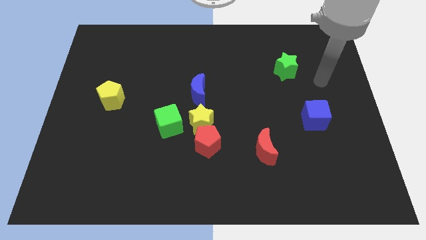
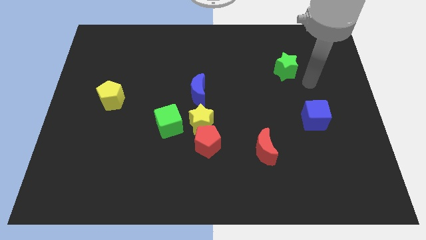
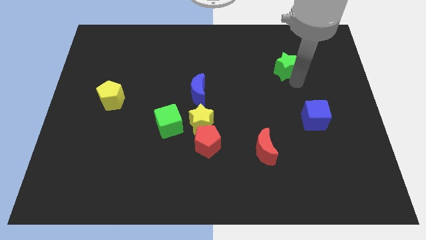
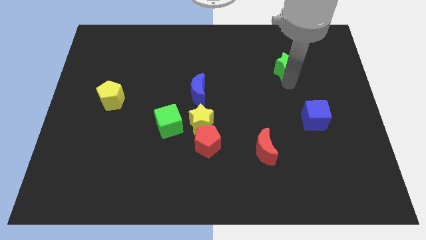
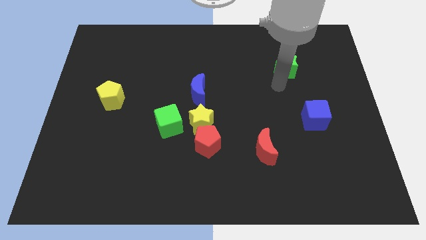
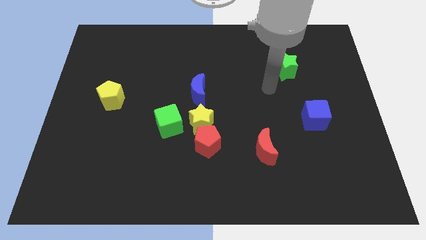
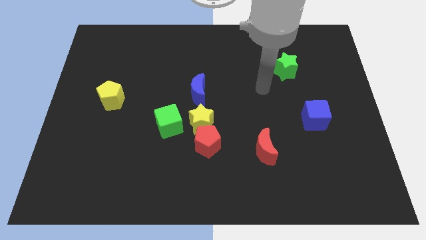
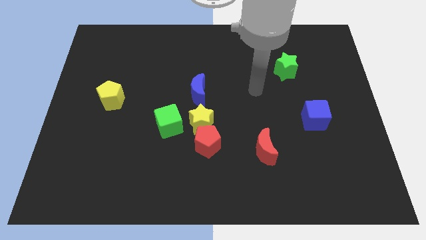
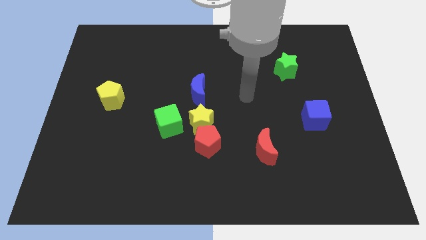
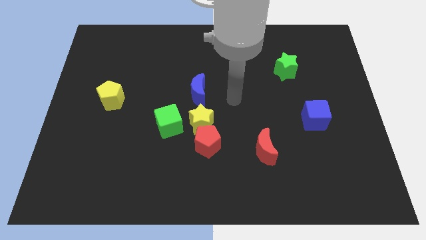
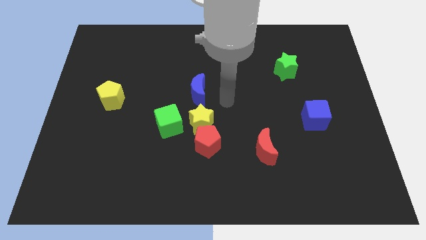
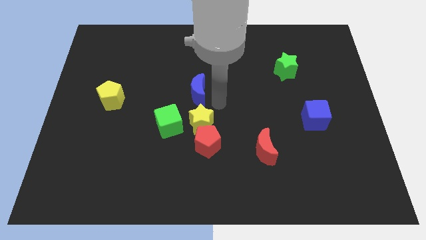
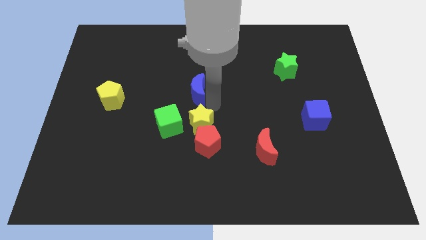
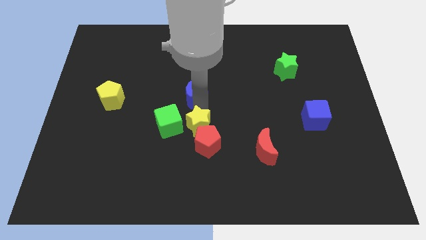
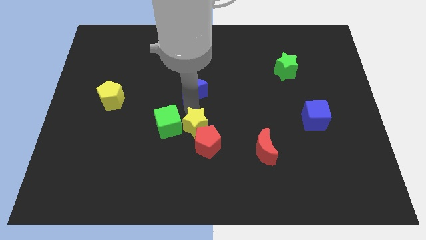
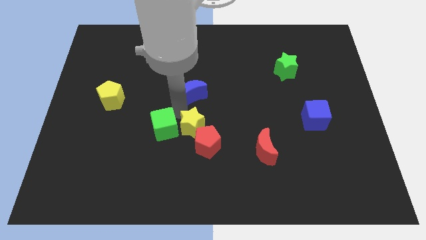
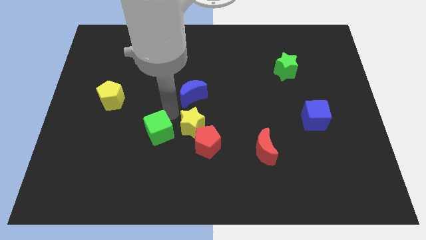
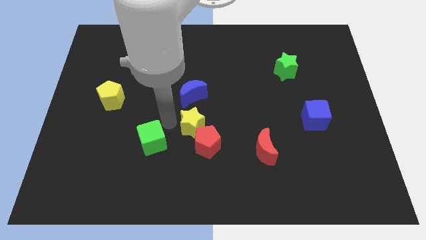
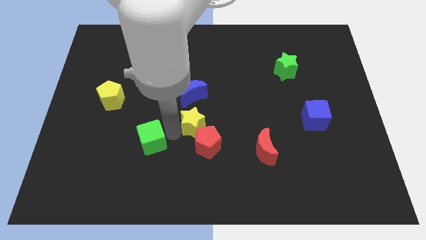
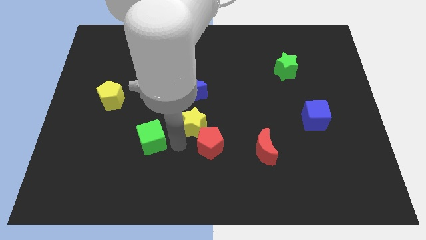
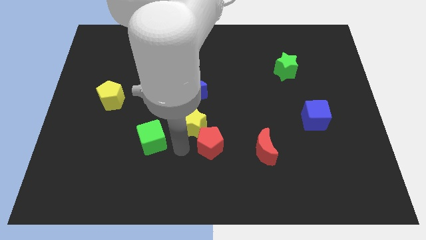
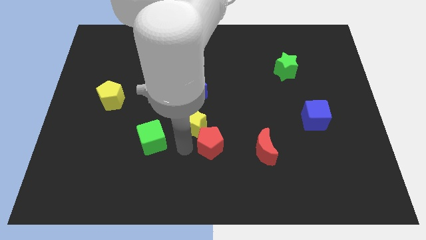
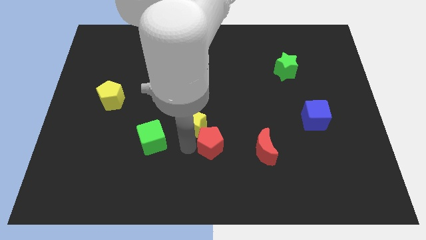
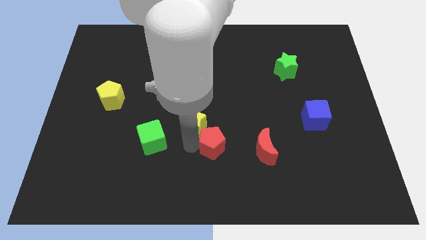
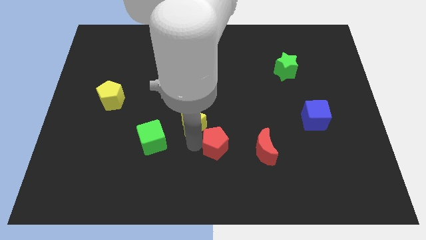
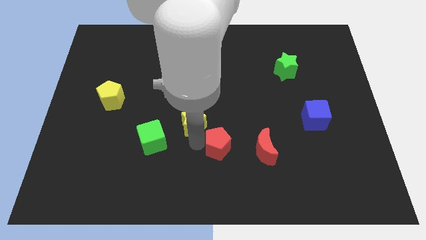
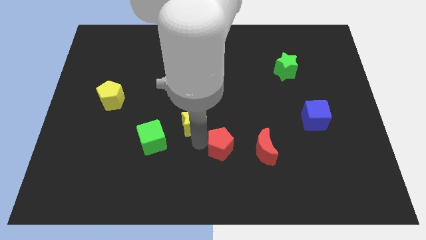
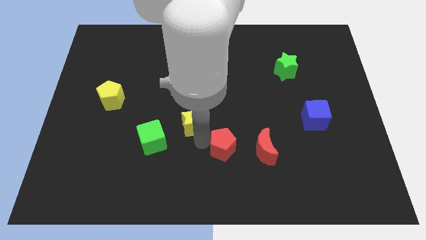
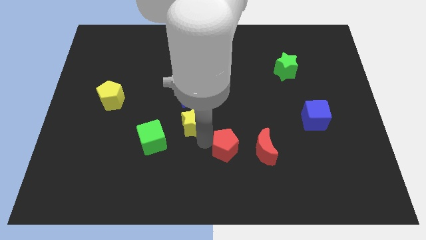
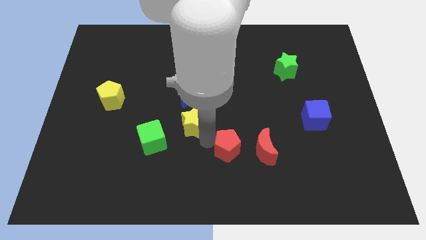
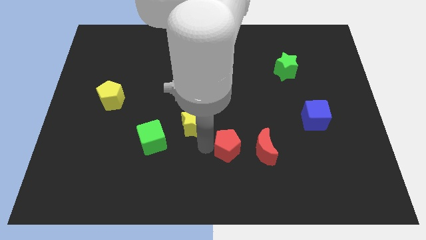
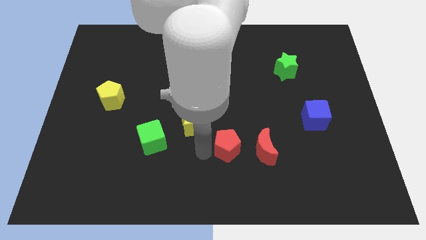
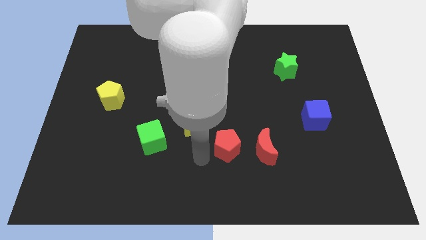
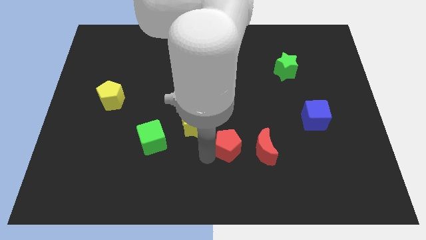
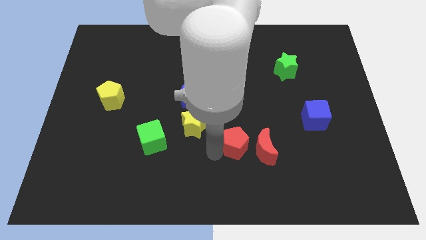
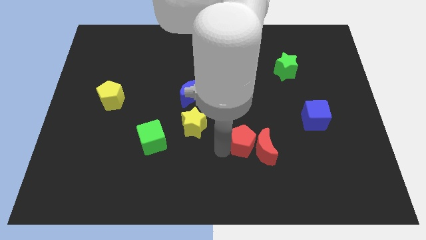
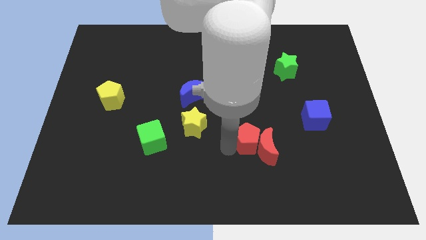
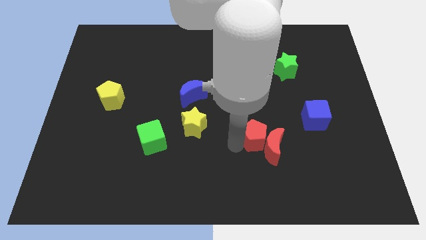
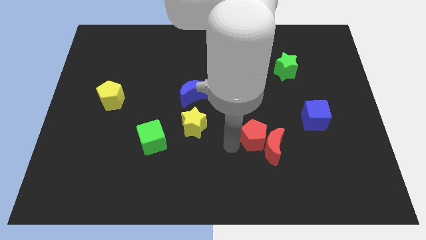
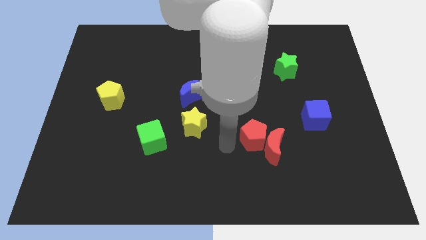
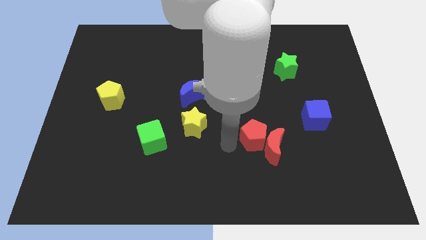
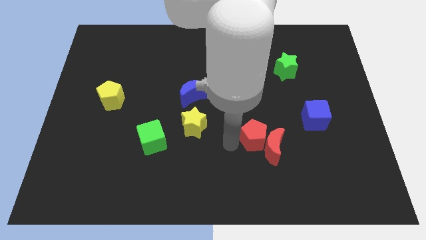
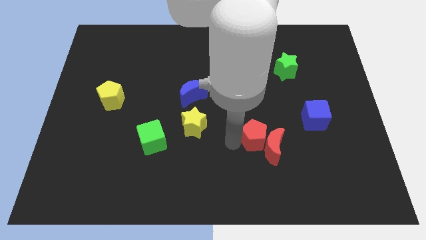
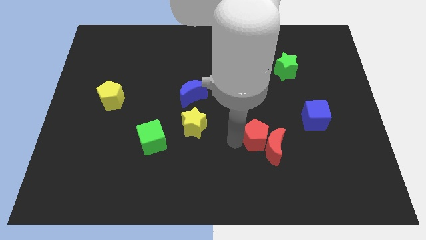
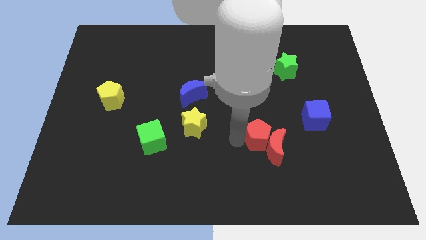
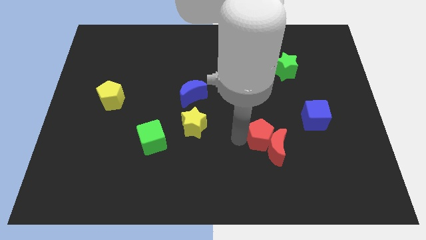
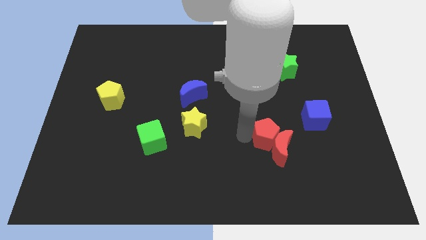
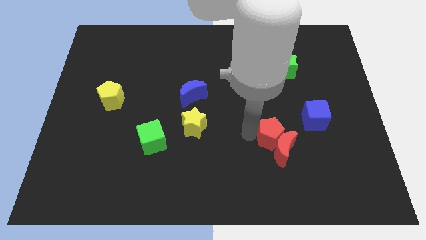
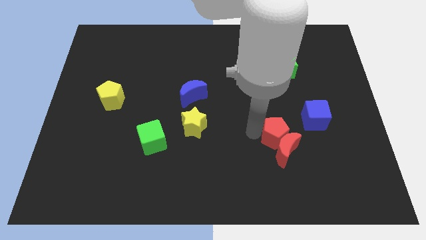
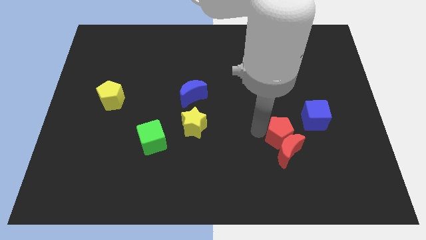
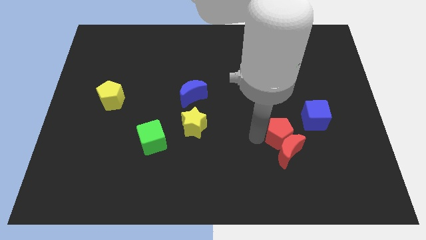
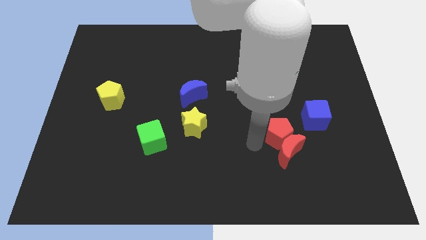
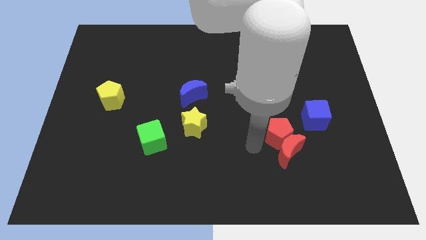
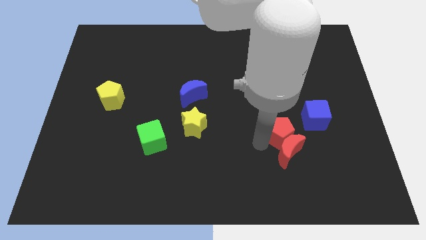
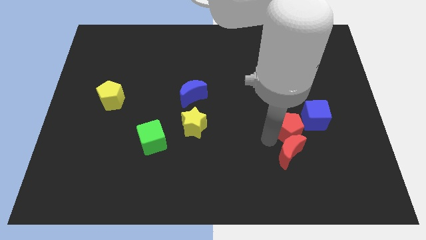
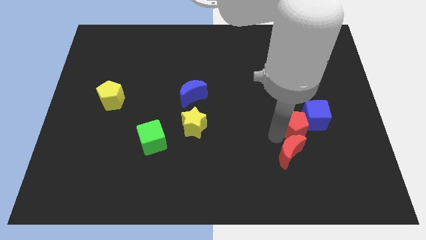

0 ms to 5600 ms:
slide the red pentagon towards the blue cube

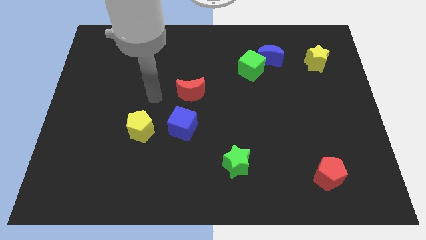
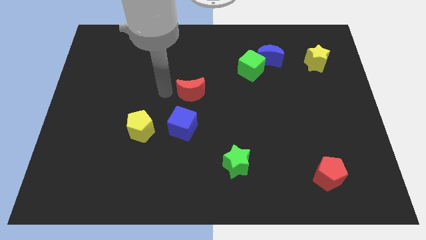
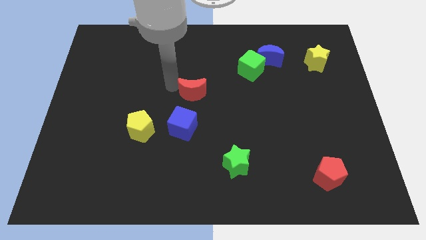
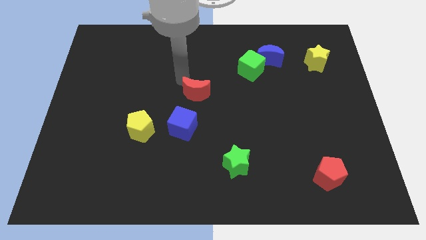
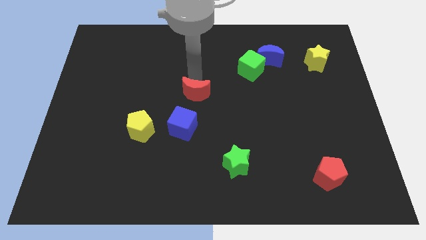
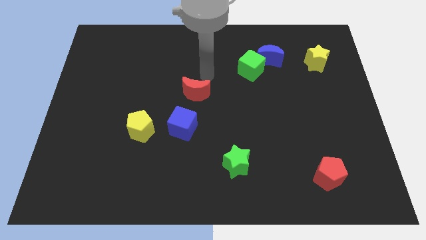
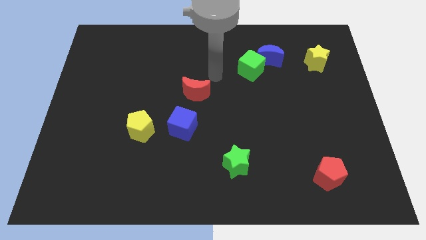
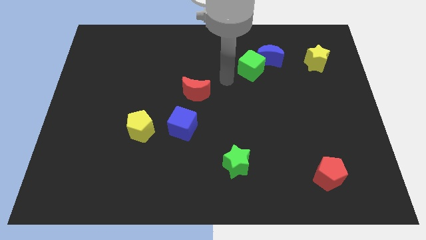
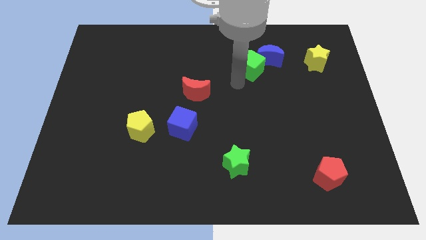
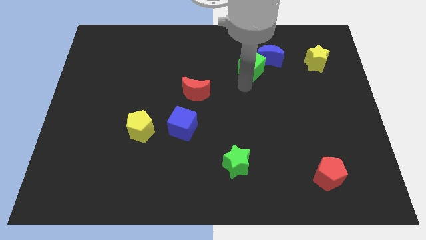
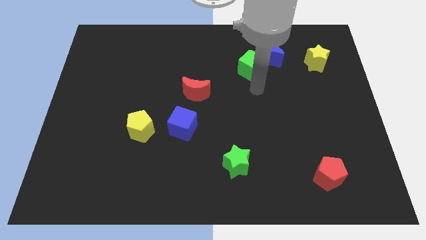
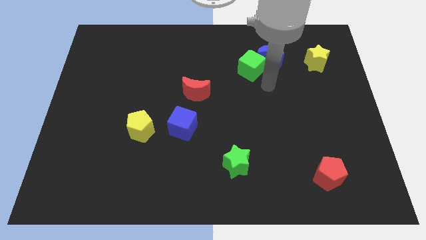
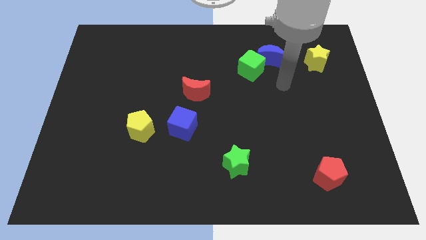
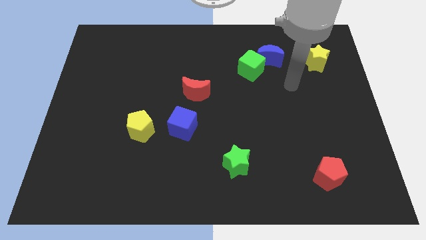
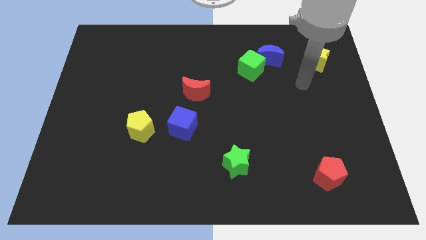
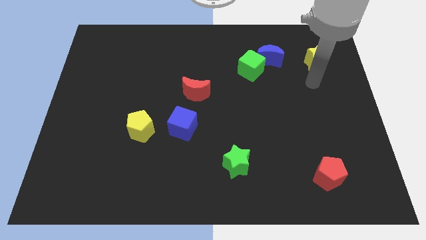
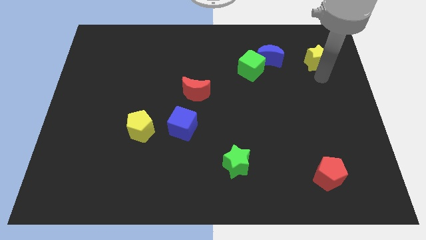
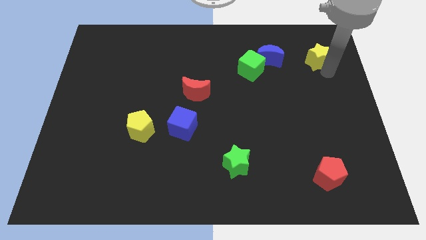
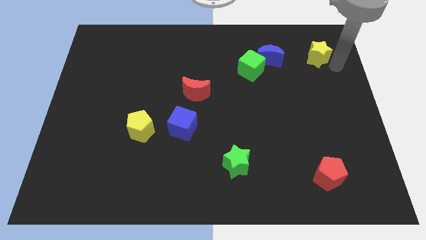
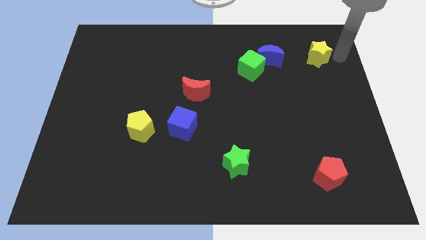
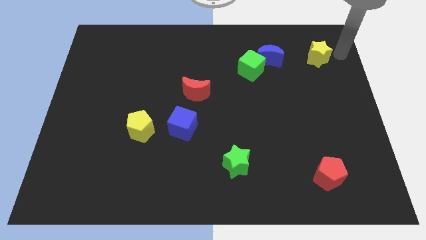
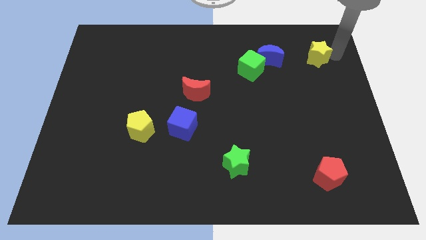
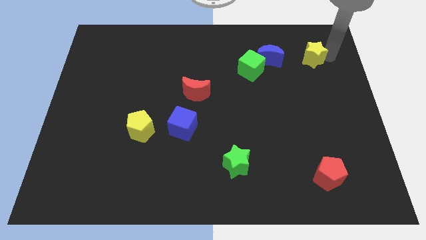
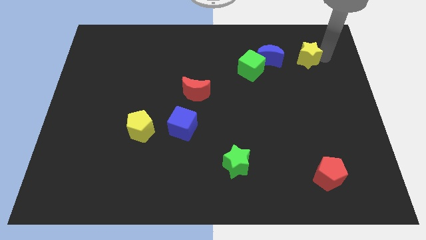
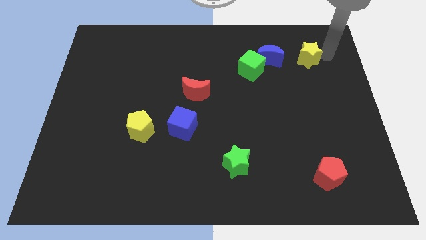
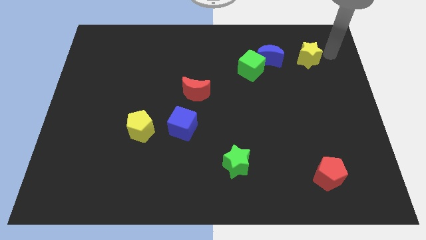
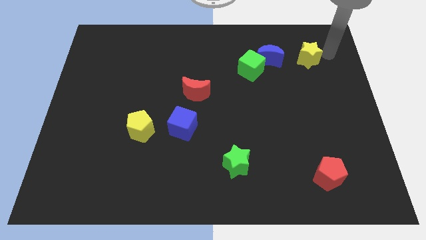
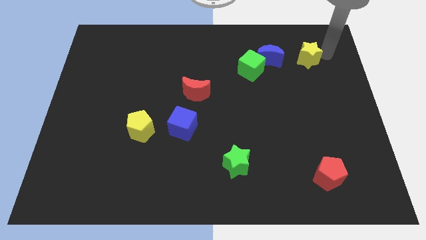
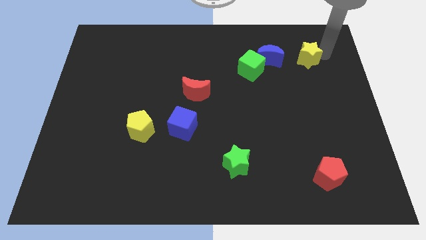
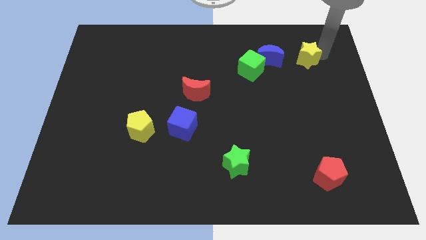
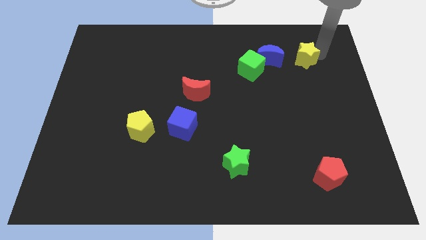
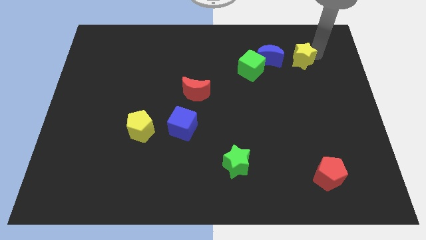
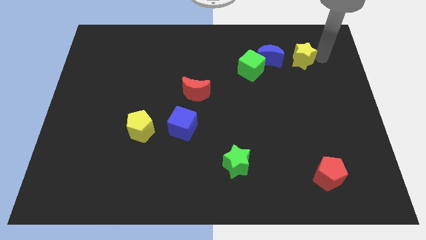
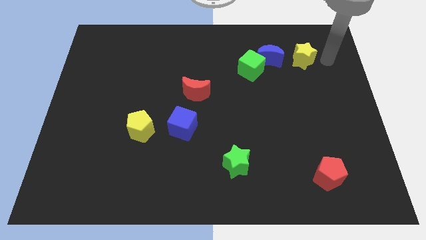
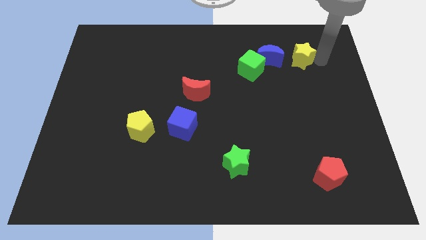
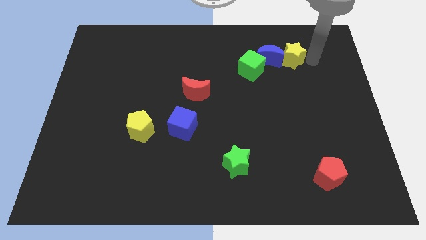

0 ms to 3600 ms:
push the yellow star to the blue moon
